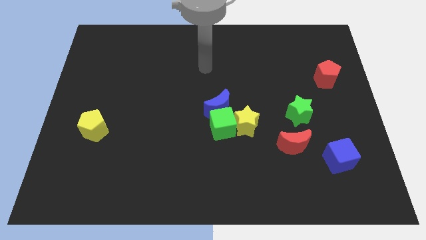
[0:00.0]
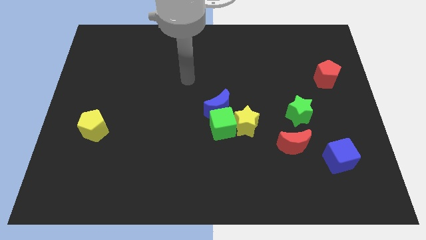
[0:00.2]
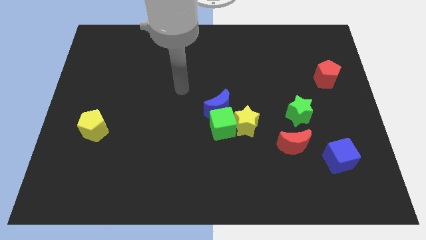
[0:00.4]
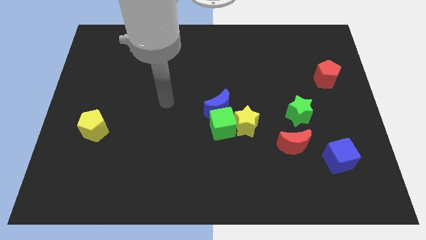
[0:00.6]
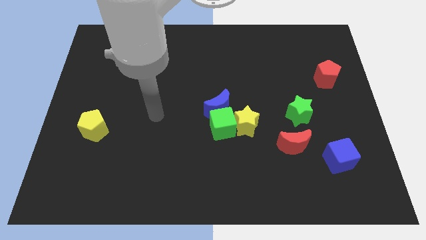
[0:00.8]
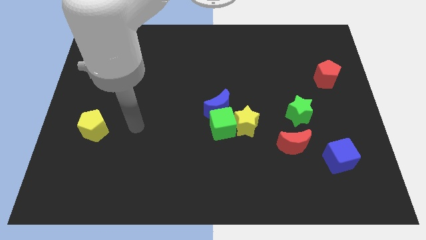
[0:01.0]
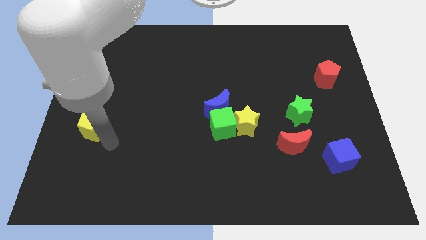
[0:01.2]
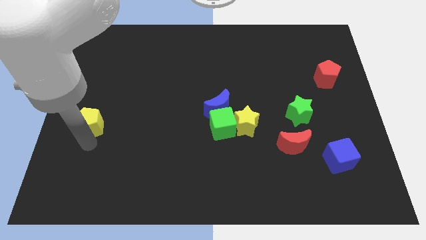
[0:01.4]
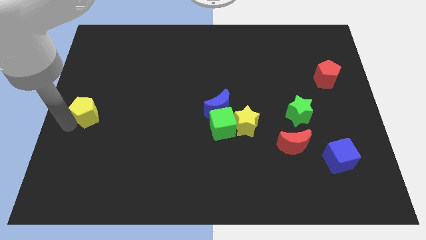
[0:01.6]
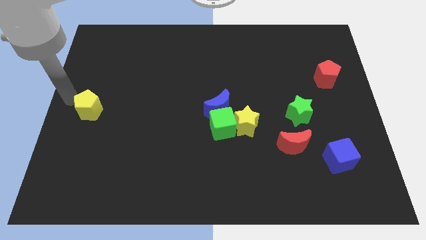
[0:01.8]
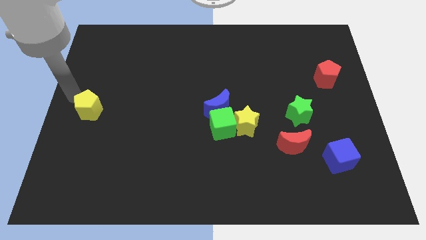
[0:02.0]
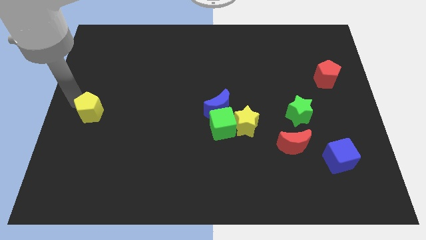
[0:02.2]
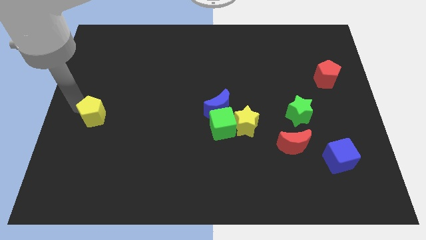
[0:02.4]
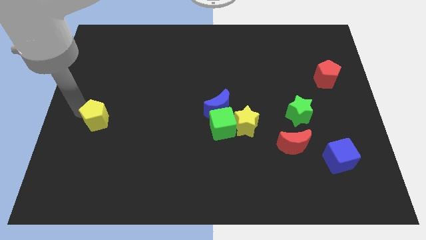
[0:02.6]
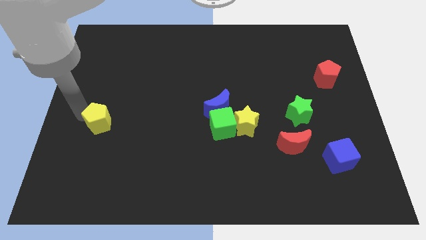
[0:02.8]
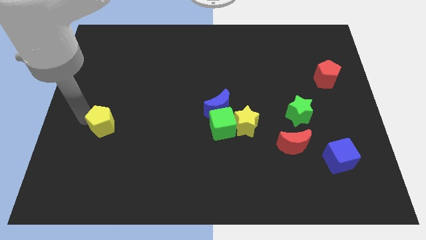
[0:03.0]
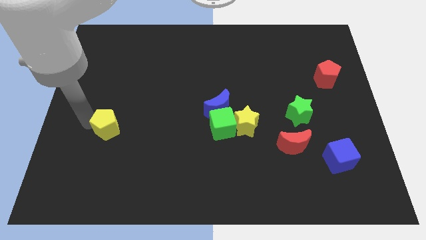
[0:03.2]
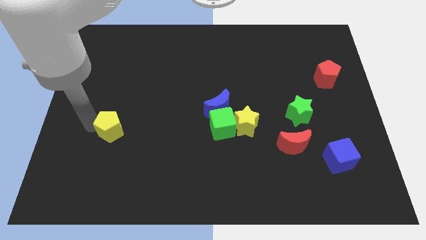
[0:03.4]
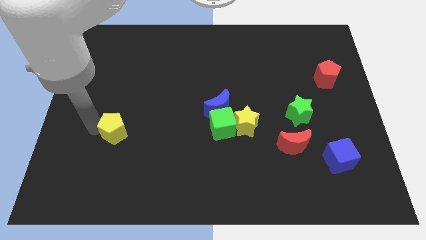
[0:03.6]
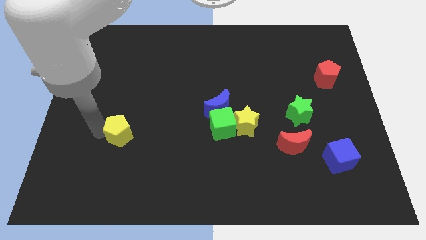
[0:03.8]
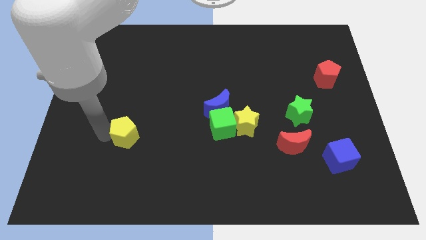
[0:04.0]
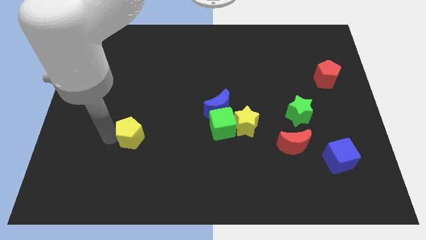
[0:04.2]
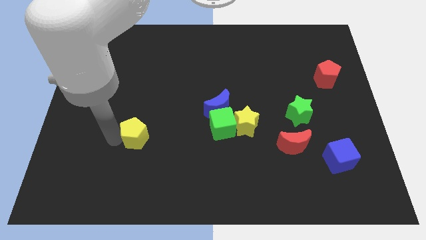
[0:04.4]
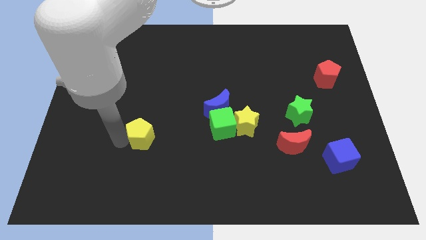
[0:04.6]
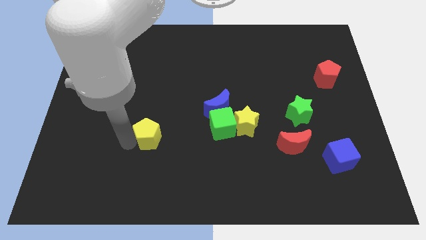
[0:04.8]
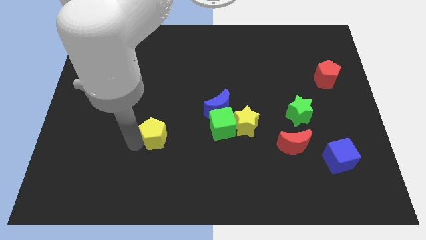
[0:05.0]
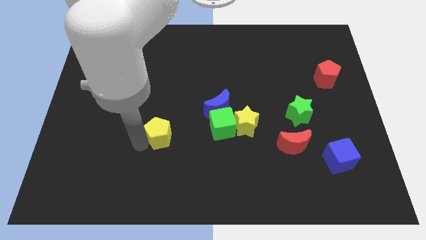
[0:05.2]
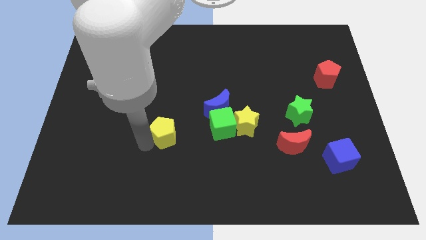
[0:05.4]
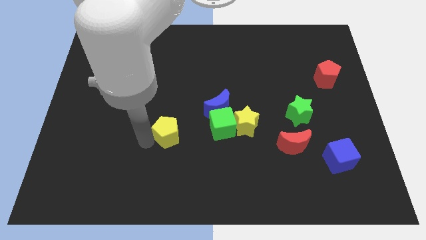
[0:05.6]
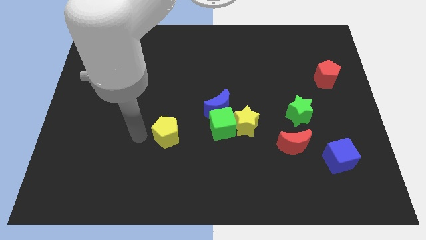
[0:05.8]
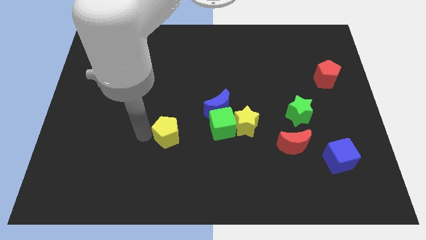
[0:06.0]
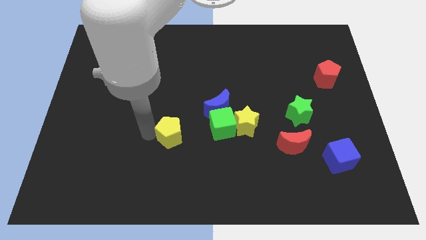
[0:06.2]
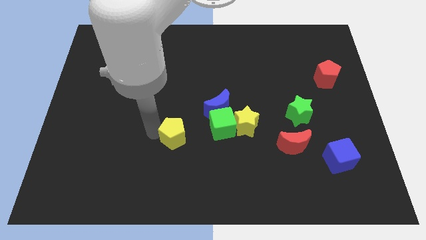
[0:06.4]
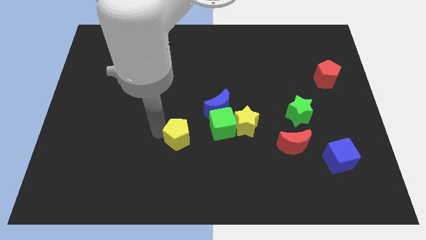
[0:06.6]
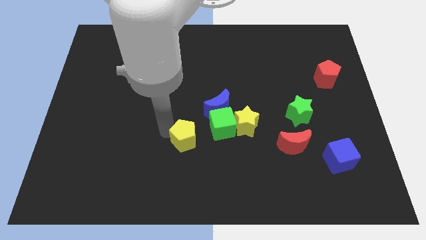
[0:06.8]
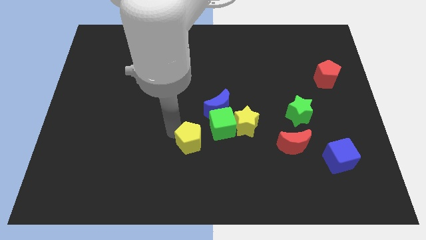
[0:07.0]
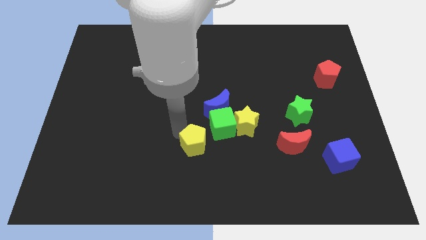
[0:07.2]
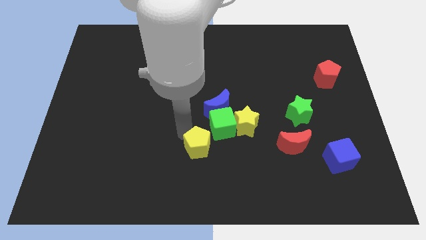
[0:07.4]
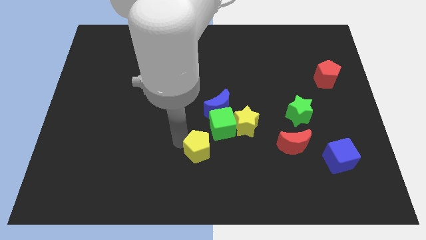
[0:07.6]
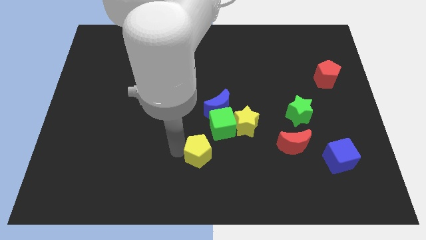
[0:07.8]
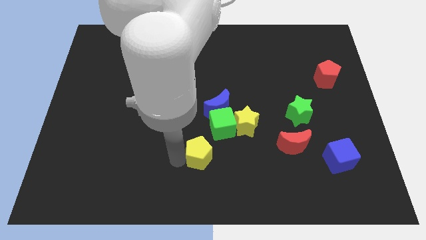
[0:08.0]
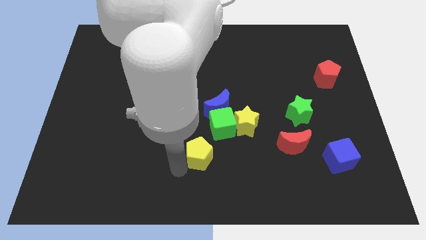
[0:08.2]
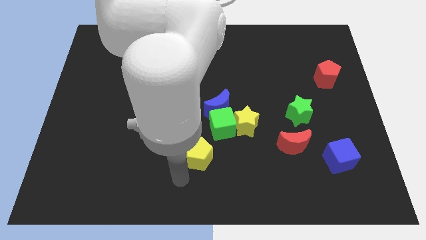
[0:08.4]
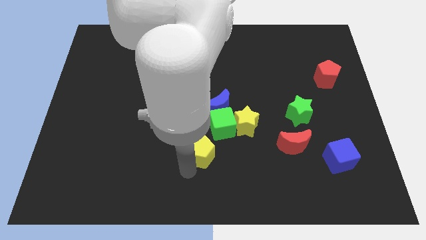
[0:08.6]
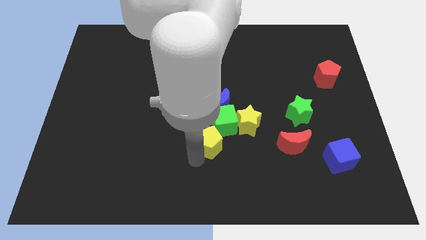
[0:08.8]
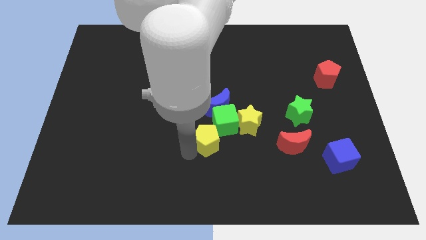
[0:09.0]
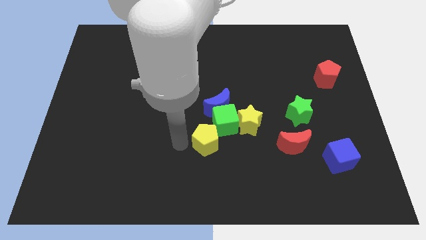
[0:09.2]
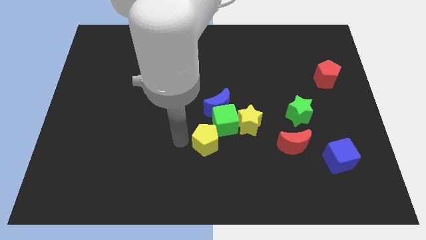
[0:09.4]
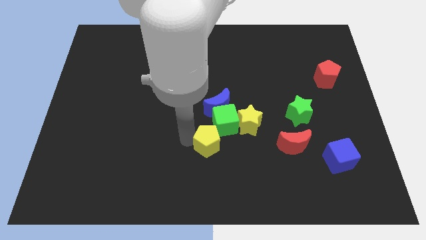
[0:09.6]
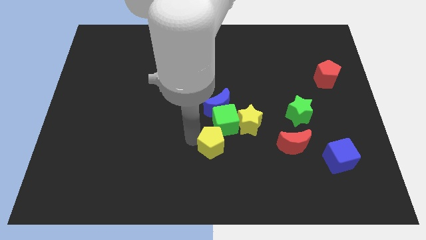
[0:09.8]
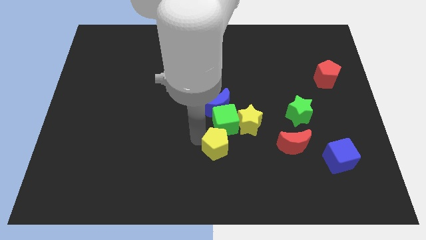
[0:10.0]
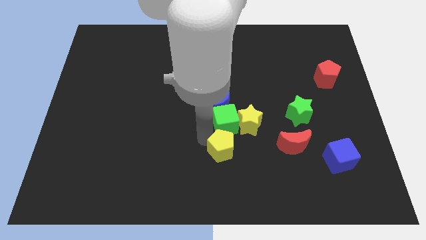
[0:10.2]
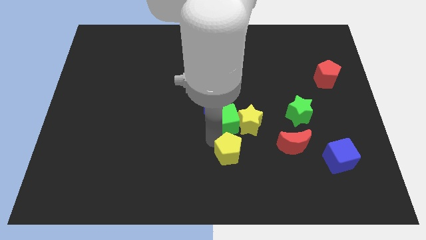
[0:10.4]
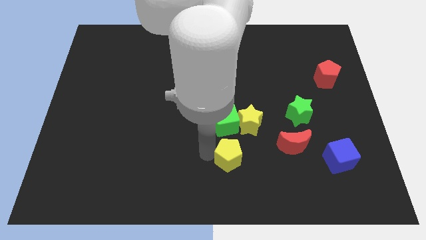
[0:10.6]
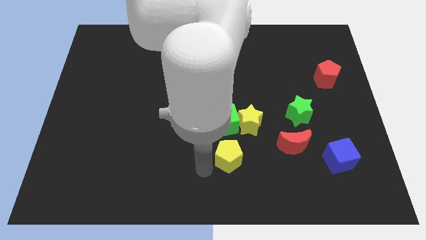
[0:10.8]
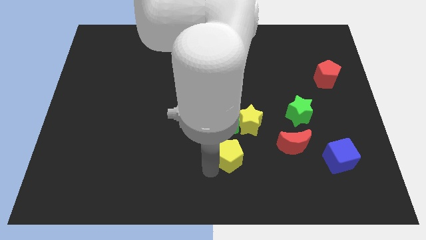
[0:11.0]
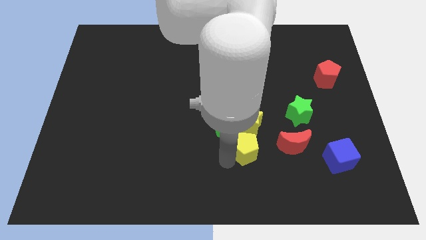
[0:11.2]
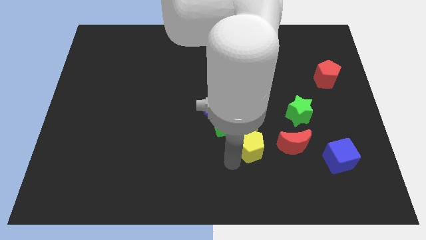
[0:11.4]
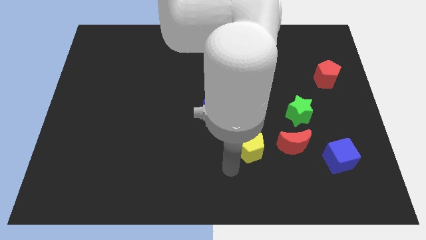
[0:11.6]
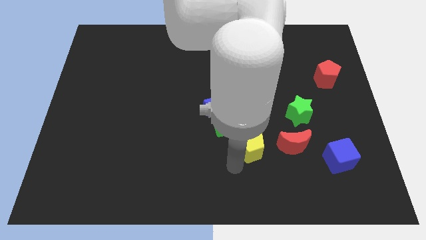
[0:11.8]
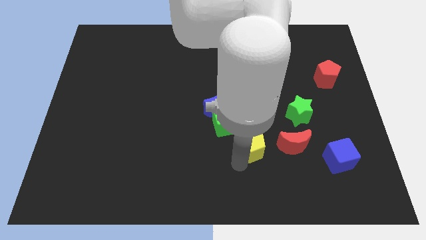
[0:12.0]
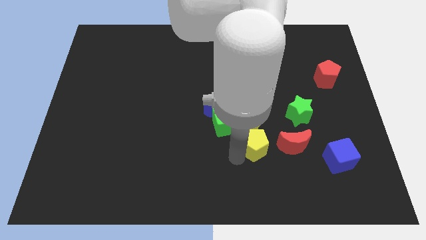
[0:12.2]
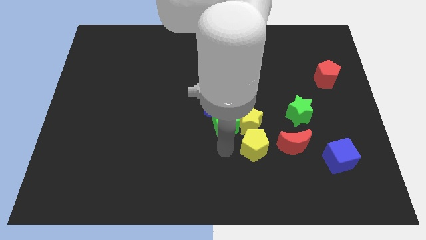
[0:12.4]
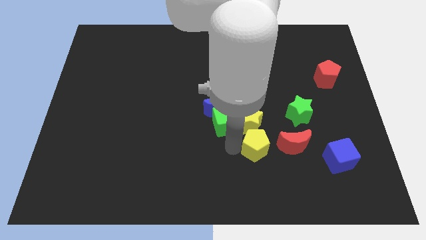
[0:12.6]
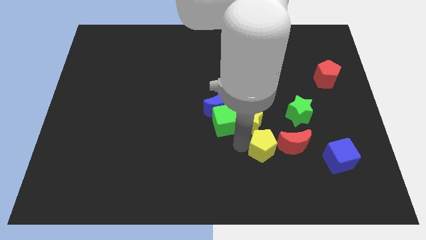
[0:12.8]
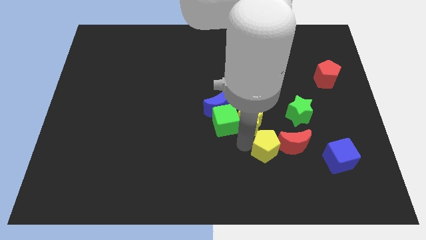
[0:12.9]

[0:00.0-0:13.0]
move the yellow pentagon to the red moon
